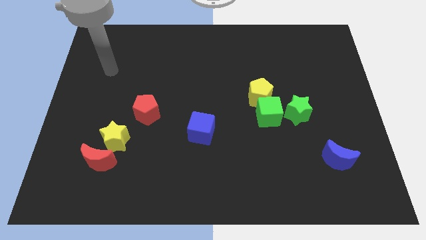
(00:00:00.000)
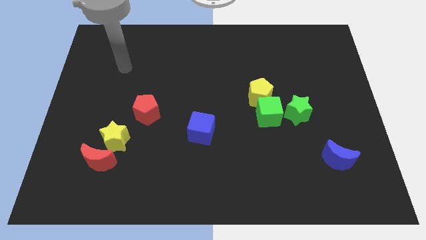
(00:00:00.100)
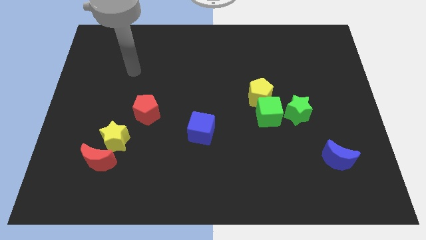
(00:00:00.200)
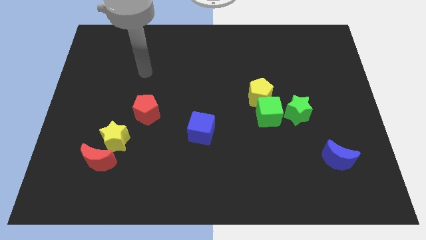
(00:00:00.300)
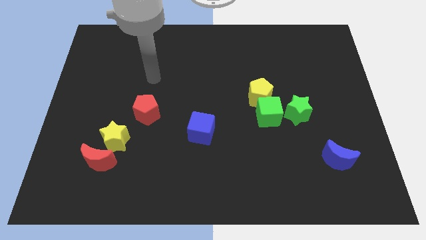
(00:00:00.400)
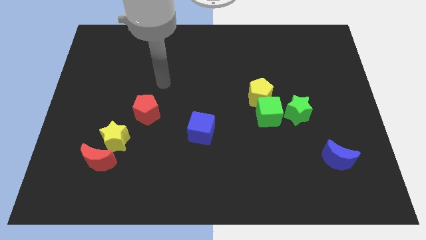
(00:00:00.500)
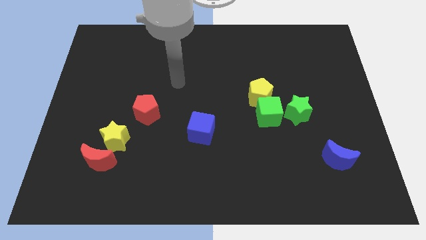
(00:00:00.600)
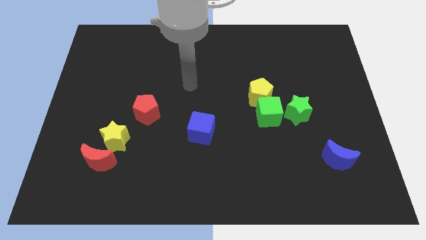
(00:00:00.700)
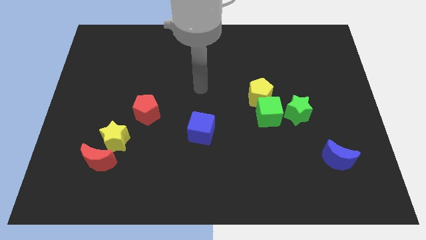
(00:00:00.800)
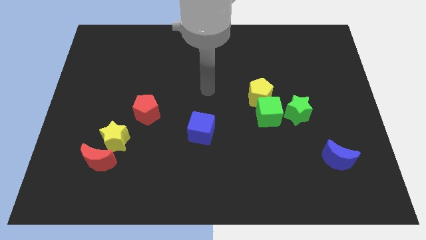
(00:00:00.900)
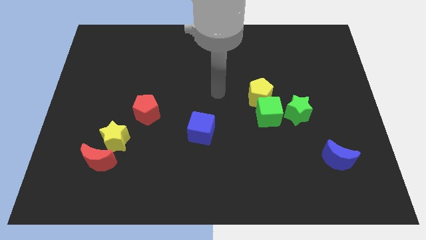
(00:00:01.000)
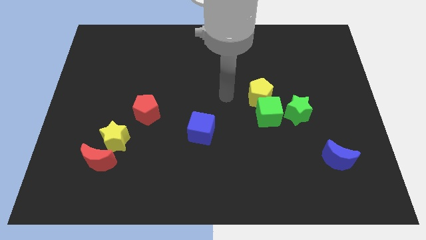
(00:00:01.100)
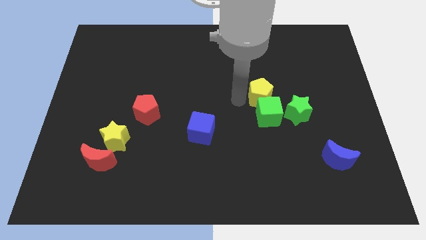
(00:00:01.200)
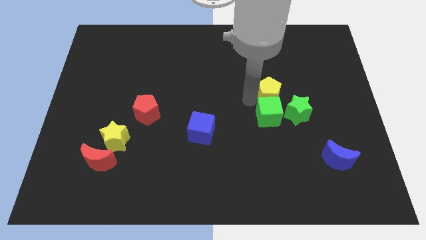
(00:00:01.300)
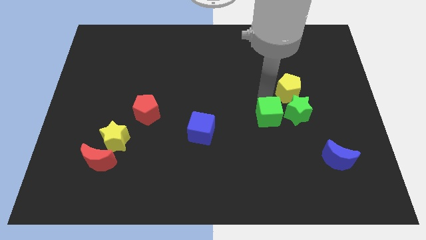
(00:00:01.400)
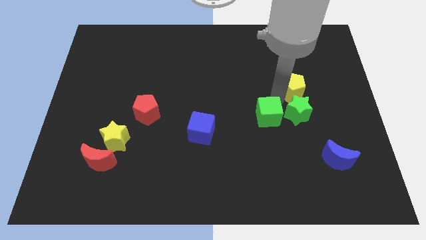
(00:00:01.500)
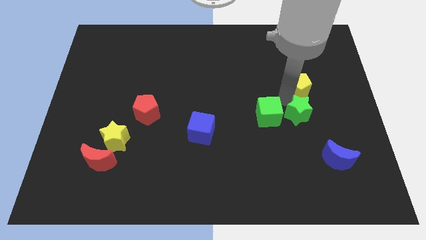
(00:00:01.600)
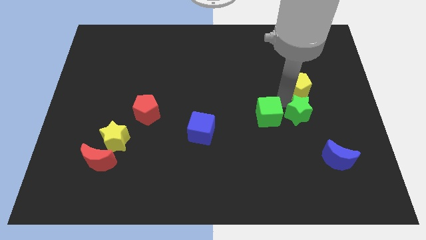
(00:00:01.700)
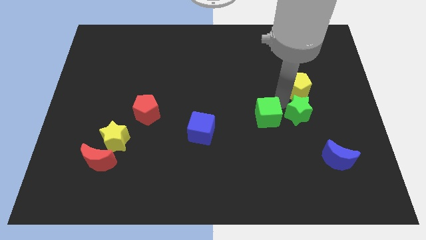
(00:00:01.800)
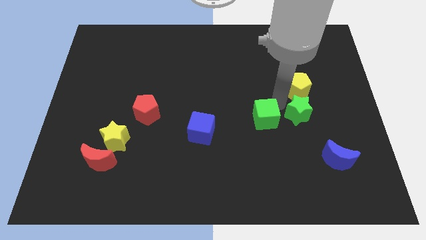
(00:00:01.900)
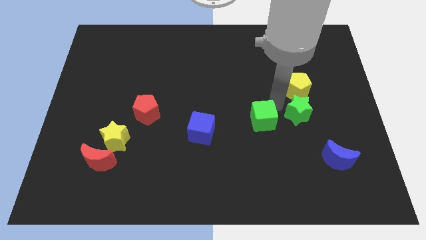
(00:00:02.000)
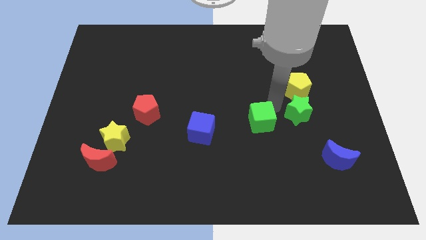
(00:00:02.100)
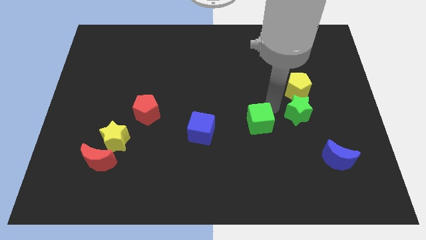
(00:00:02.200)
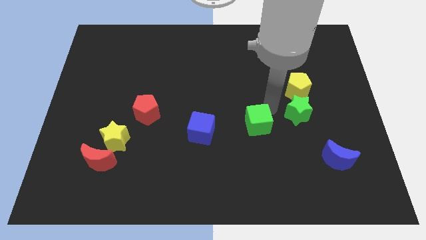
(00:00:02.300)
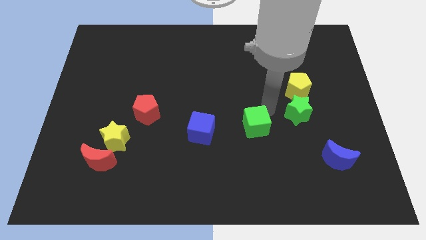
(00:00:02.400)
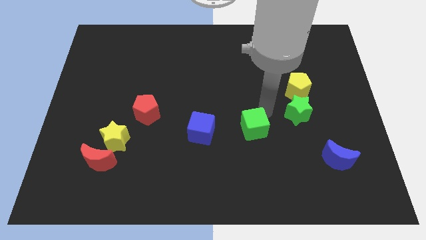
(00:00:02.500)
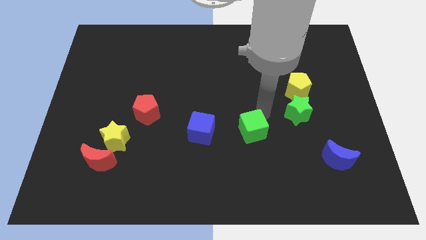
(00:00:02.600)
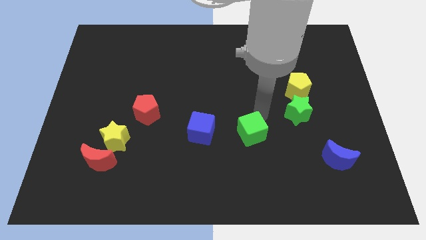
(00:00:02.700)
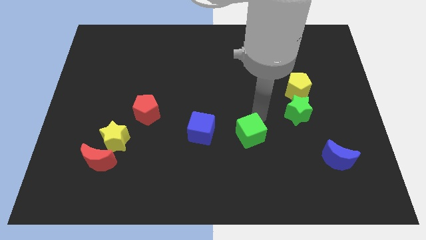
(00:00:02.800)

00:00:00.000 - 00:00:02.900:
slightly push the green cube down and to the left

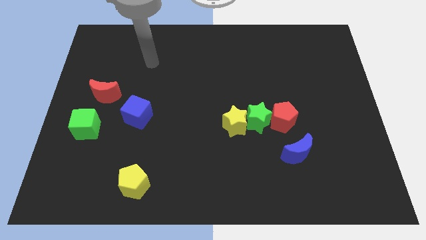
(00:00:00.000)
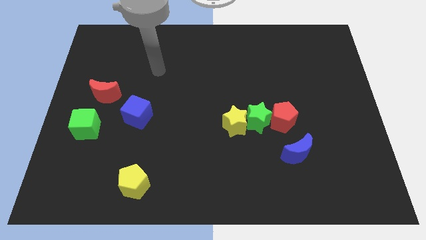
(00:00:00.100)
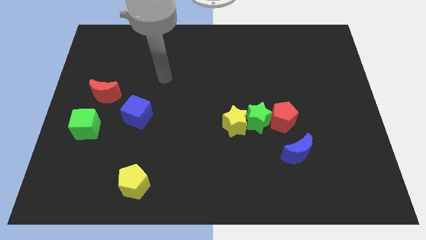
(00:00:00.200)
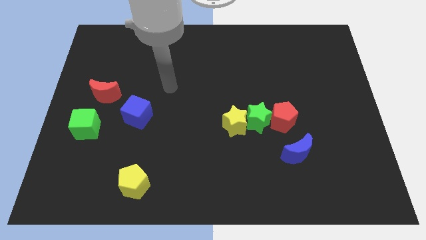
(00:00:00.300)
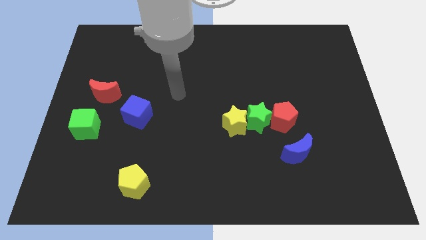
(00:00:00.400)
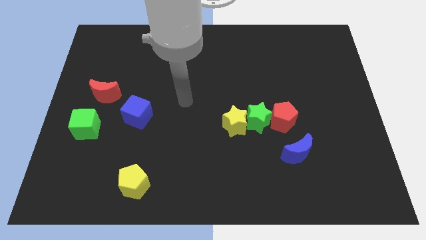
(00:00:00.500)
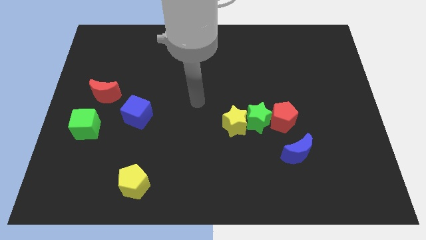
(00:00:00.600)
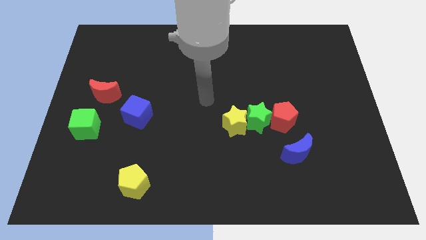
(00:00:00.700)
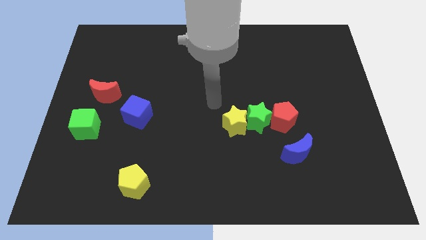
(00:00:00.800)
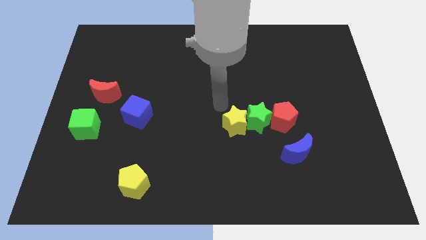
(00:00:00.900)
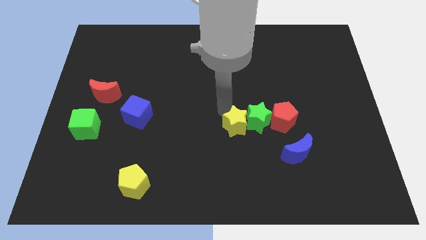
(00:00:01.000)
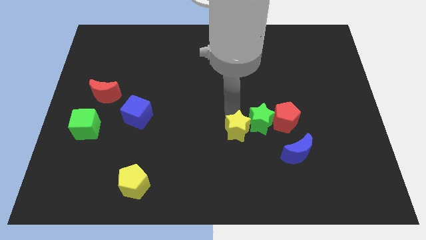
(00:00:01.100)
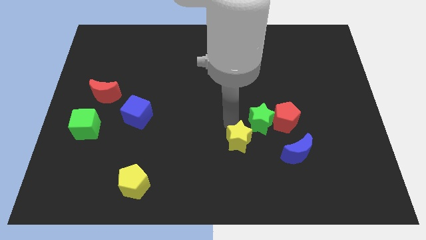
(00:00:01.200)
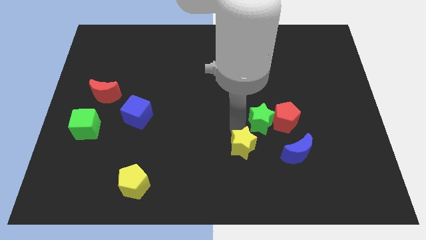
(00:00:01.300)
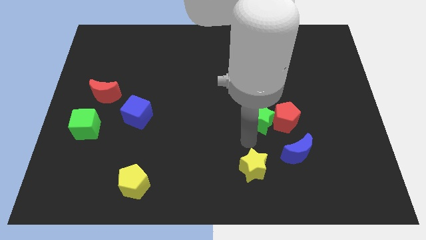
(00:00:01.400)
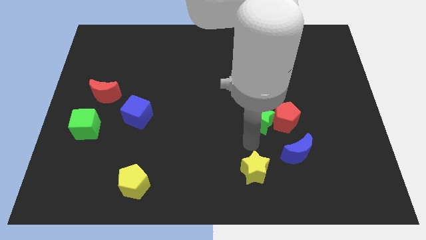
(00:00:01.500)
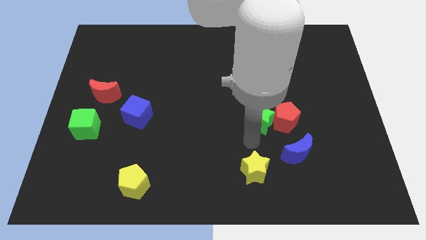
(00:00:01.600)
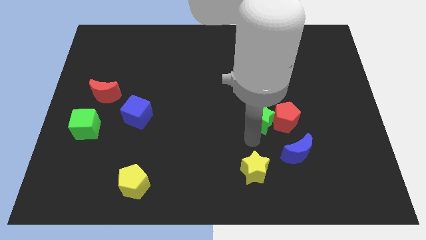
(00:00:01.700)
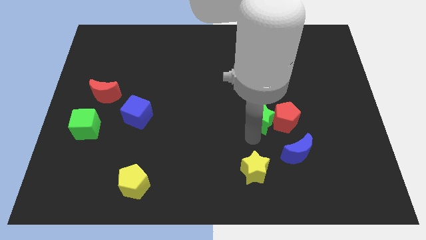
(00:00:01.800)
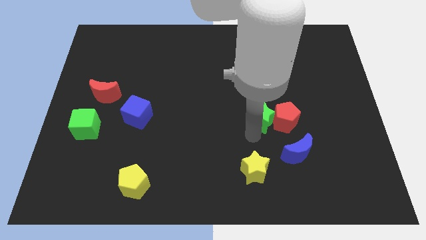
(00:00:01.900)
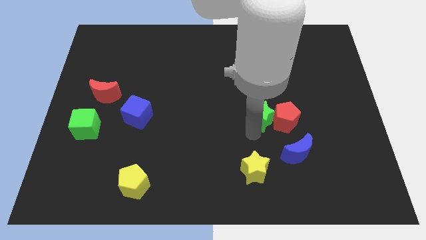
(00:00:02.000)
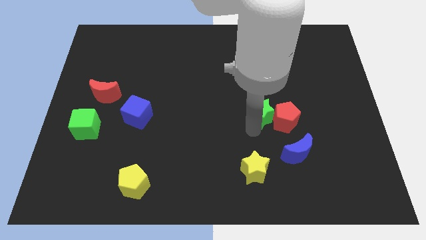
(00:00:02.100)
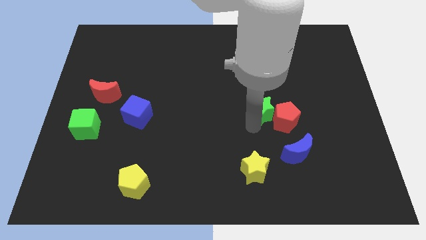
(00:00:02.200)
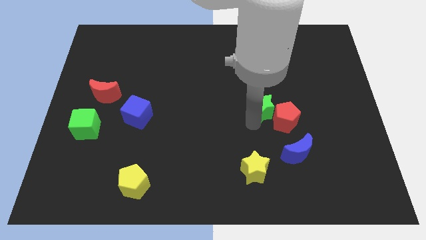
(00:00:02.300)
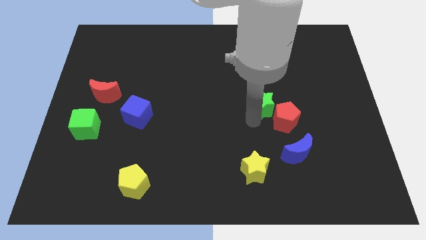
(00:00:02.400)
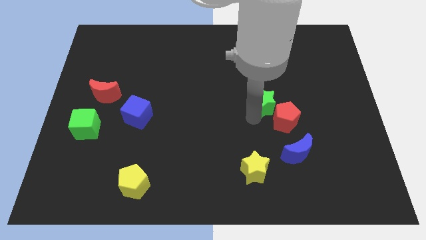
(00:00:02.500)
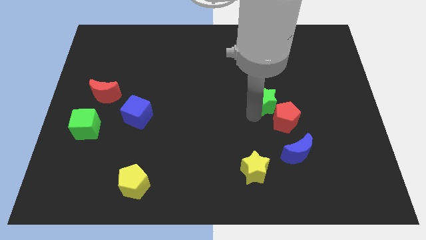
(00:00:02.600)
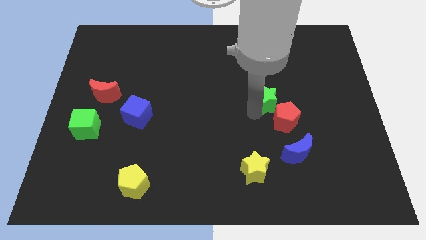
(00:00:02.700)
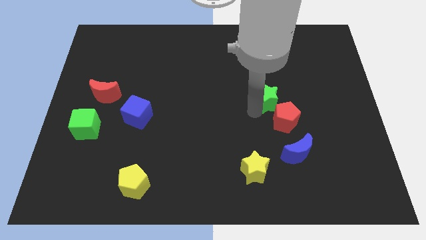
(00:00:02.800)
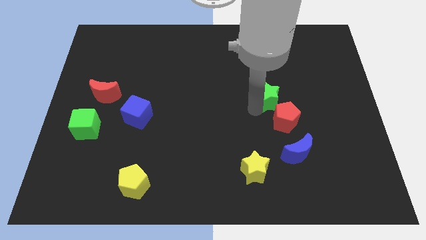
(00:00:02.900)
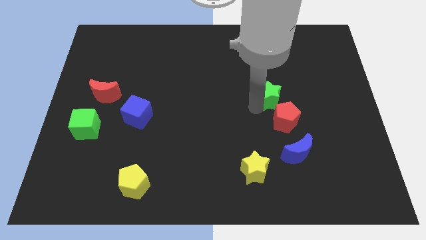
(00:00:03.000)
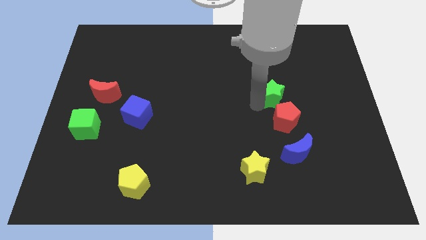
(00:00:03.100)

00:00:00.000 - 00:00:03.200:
slide the green star diagonally up and to the right somewhat

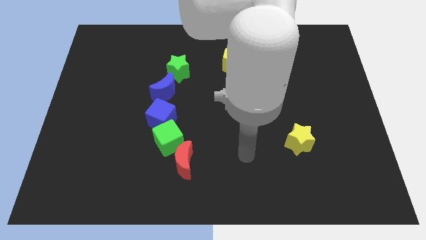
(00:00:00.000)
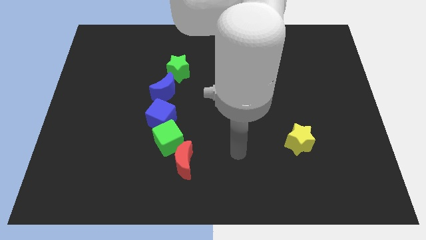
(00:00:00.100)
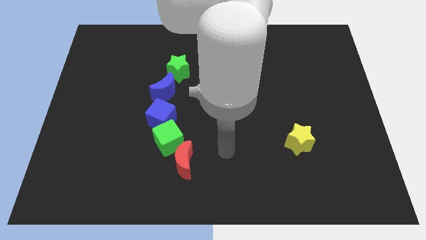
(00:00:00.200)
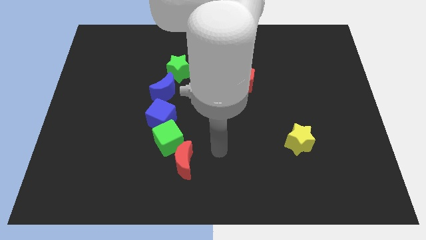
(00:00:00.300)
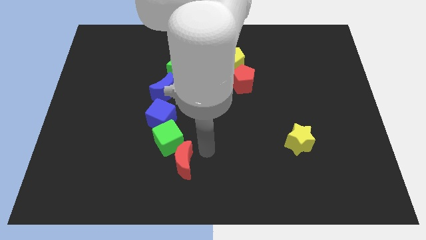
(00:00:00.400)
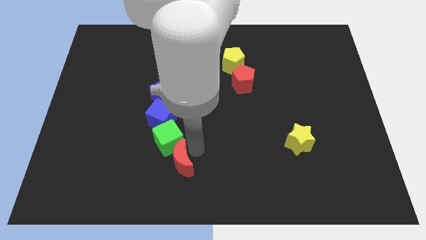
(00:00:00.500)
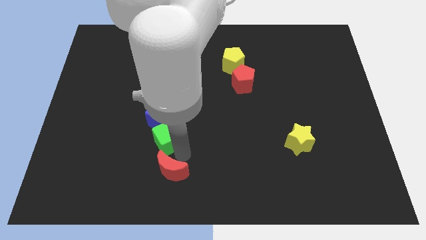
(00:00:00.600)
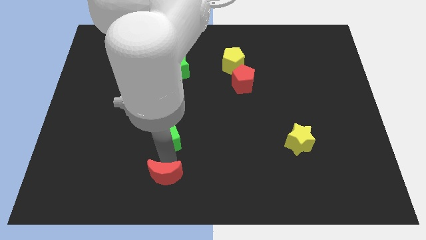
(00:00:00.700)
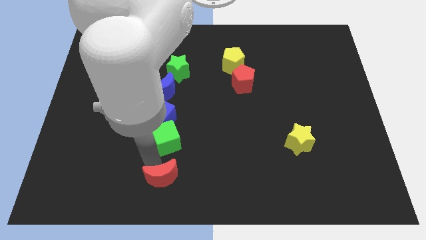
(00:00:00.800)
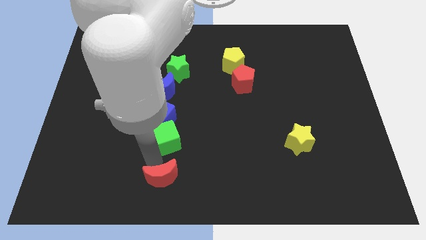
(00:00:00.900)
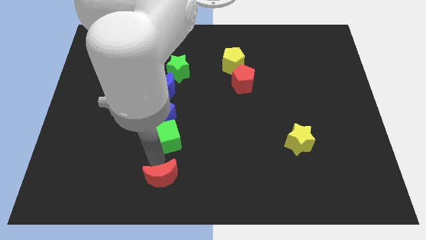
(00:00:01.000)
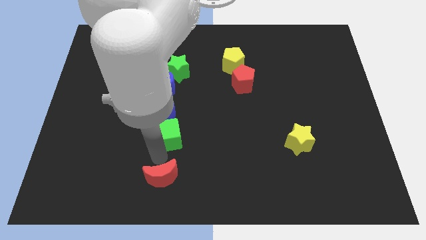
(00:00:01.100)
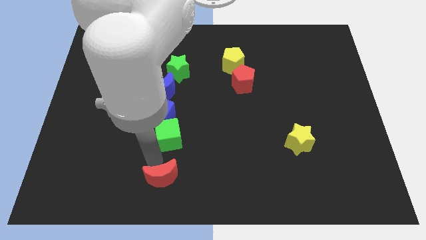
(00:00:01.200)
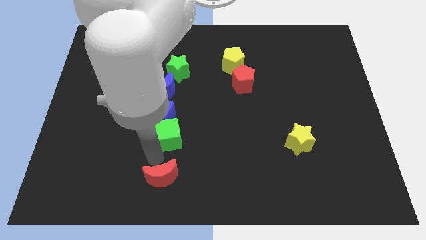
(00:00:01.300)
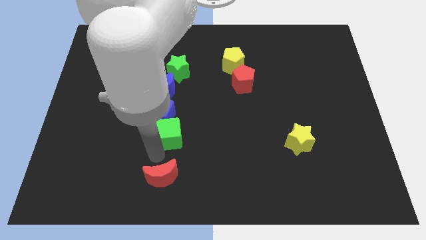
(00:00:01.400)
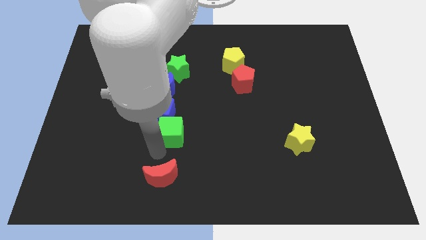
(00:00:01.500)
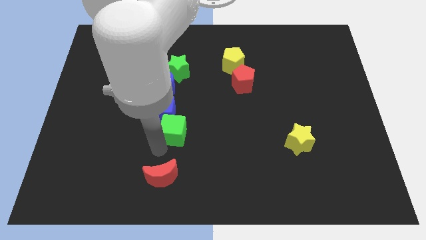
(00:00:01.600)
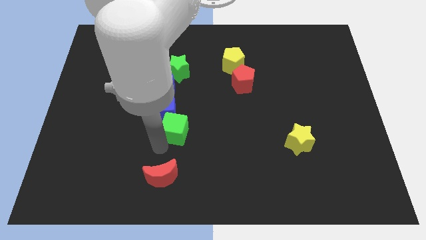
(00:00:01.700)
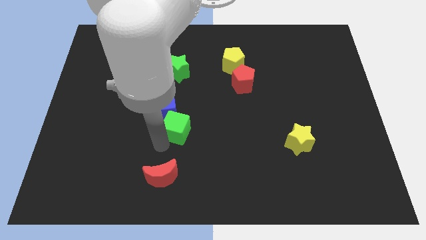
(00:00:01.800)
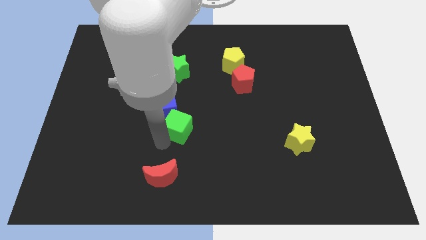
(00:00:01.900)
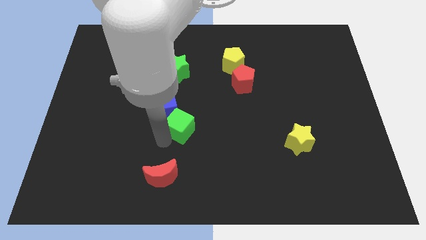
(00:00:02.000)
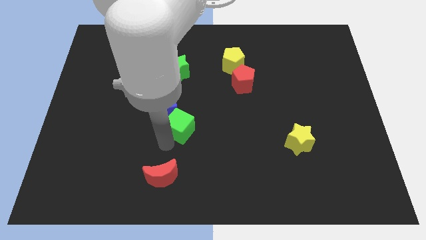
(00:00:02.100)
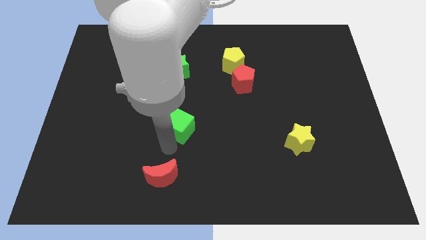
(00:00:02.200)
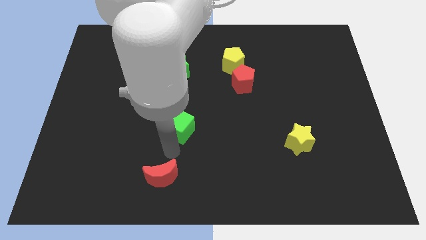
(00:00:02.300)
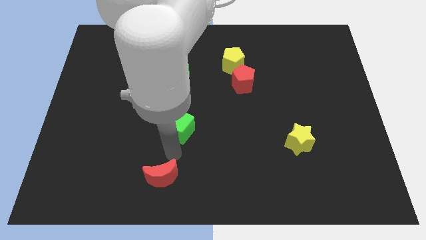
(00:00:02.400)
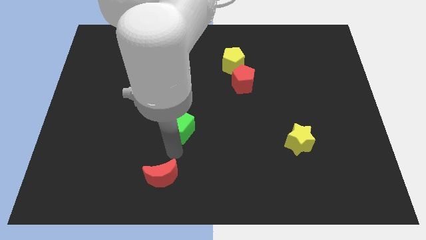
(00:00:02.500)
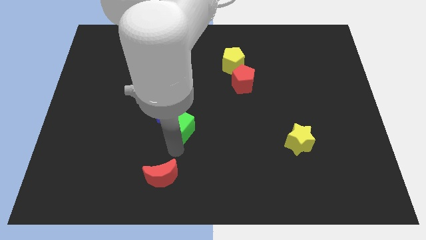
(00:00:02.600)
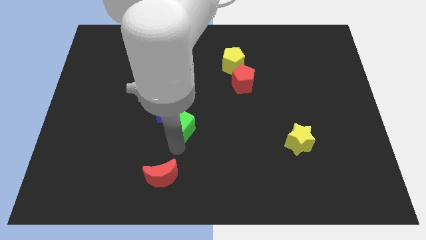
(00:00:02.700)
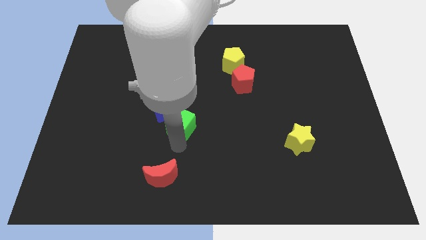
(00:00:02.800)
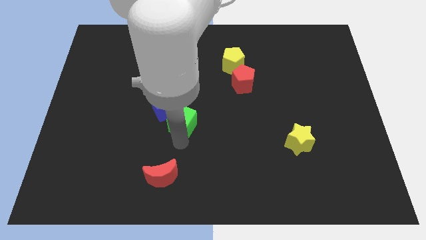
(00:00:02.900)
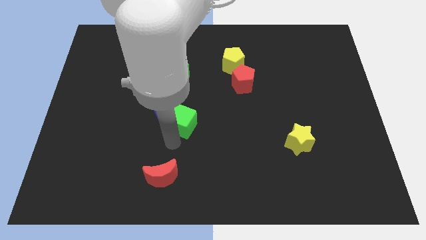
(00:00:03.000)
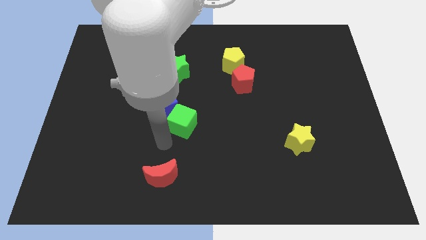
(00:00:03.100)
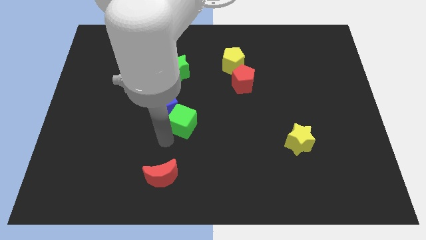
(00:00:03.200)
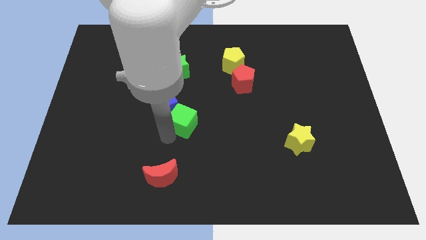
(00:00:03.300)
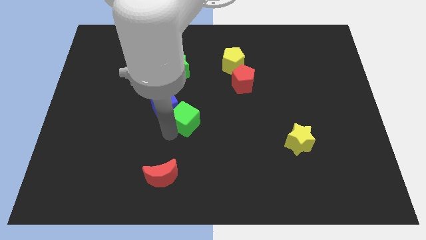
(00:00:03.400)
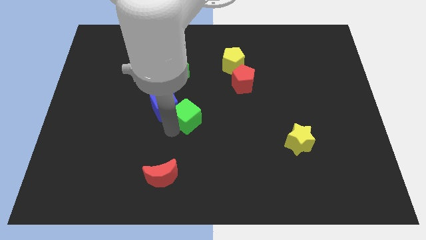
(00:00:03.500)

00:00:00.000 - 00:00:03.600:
push the green cube somewhat diagonally upwards and right
